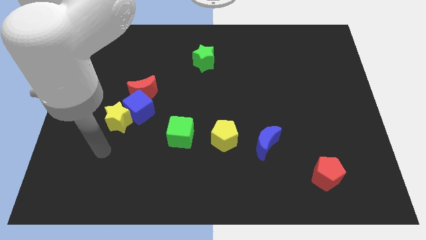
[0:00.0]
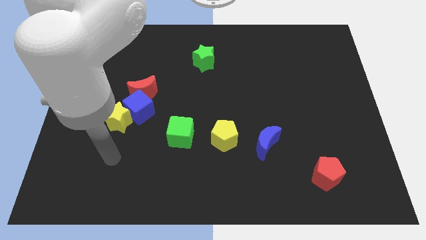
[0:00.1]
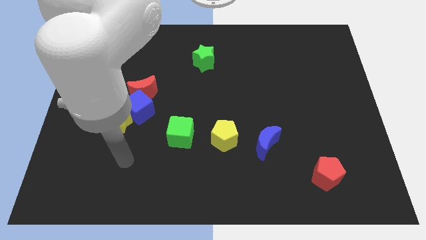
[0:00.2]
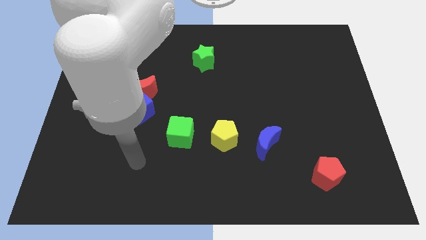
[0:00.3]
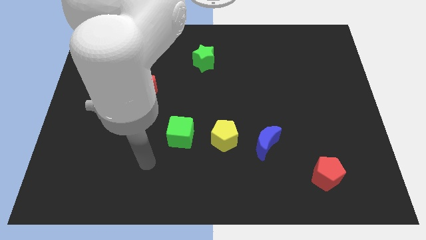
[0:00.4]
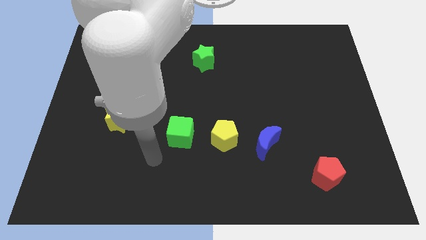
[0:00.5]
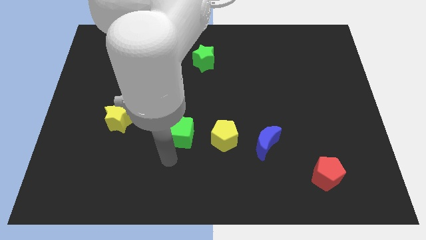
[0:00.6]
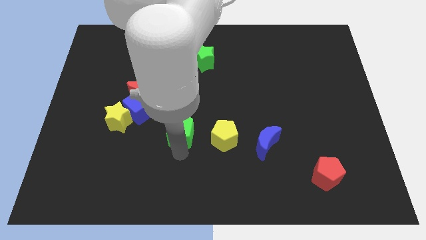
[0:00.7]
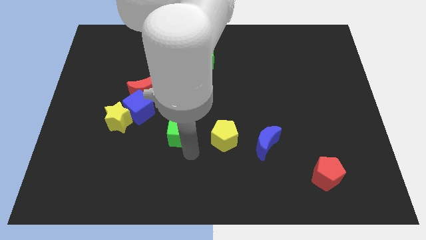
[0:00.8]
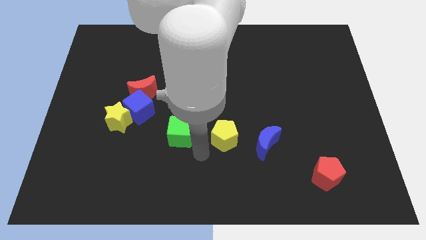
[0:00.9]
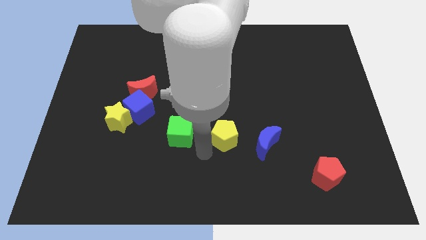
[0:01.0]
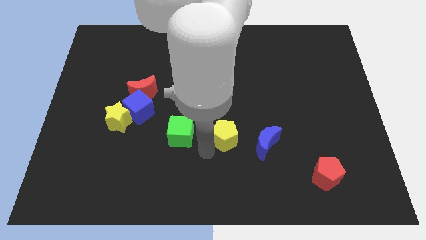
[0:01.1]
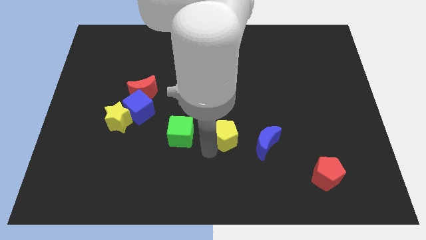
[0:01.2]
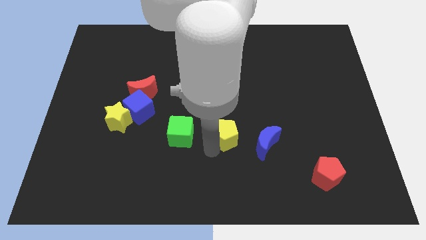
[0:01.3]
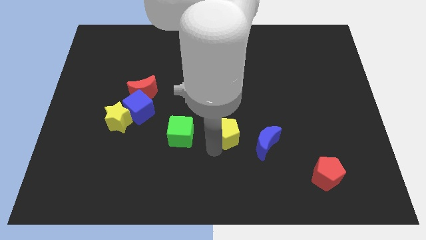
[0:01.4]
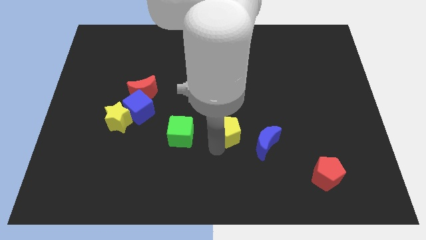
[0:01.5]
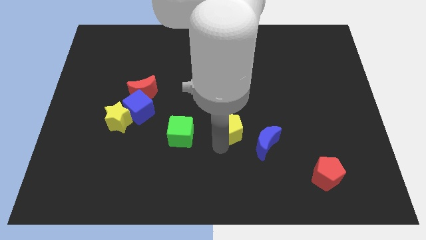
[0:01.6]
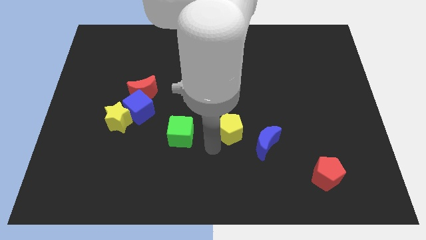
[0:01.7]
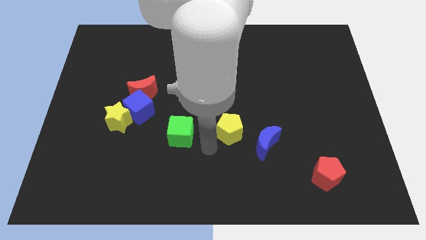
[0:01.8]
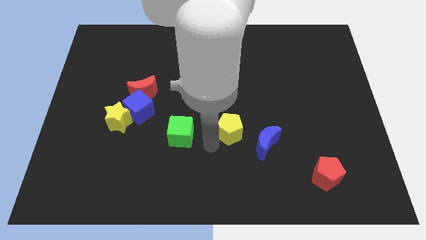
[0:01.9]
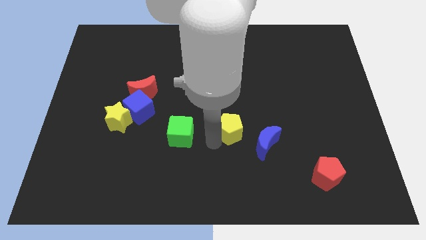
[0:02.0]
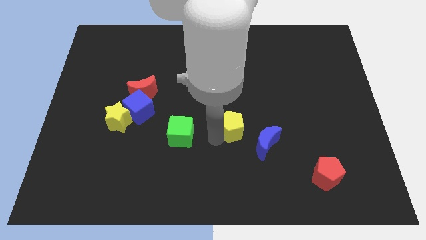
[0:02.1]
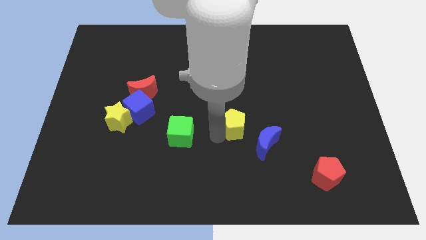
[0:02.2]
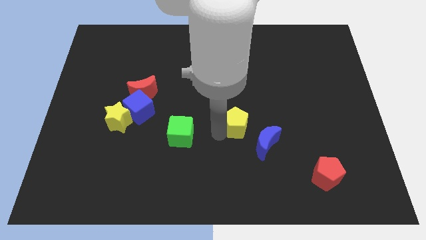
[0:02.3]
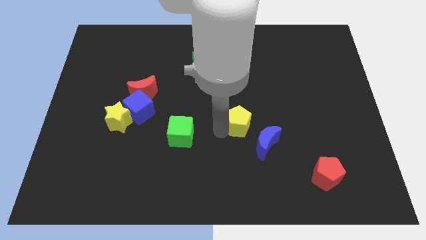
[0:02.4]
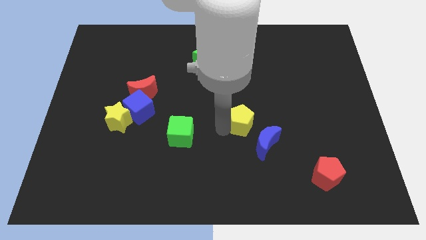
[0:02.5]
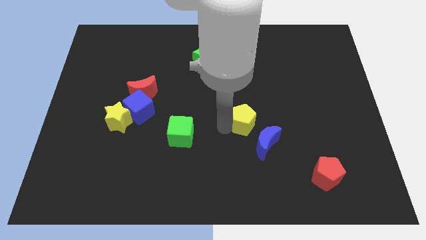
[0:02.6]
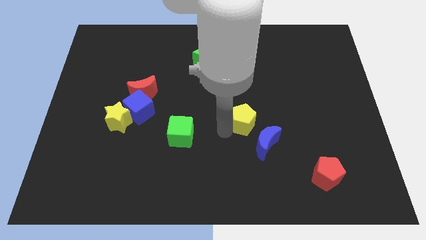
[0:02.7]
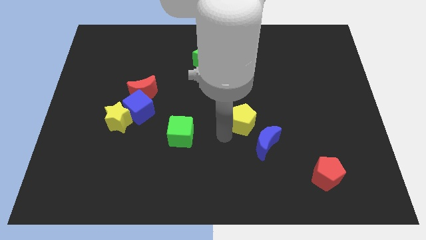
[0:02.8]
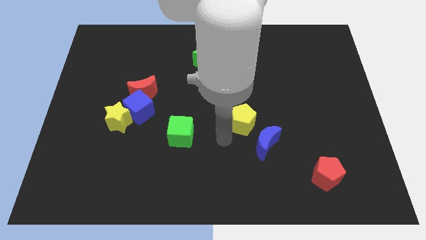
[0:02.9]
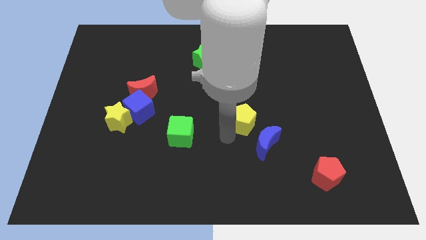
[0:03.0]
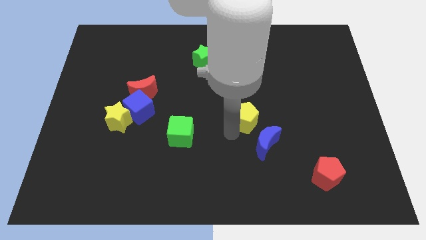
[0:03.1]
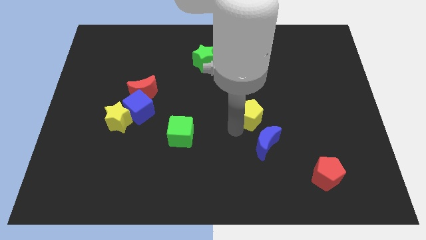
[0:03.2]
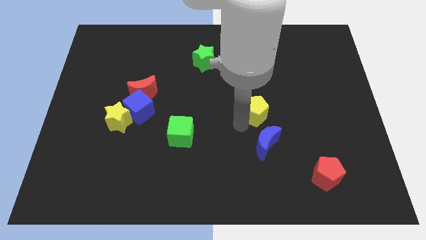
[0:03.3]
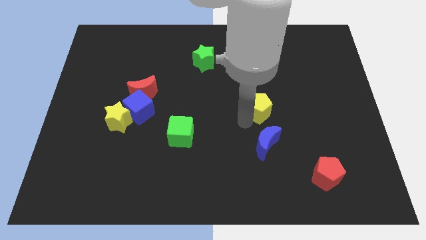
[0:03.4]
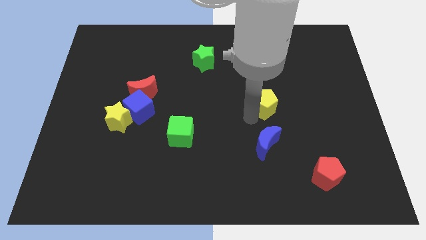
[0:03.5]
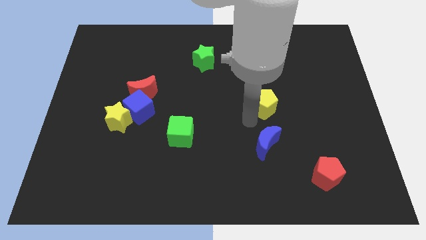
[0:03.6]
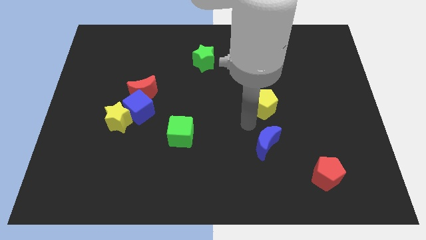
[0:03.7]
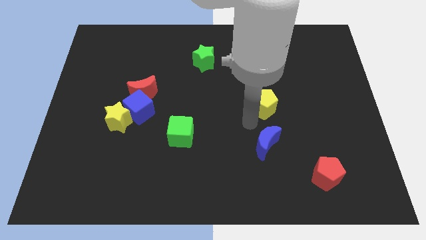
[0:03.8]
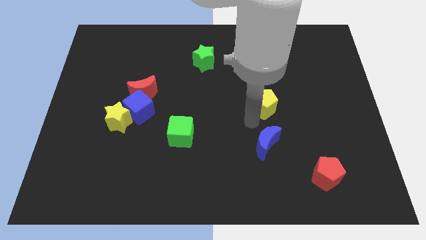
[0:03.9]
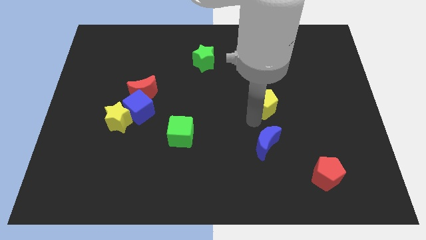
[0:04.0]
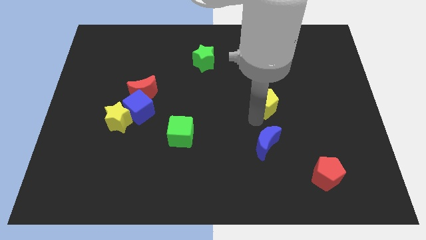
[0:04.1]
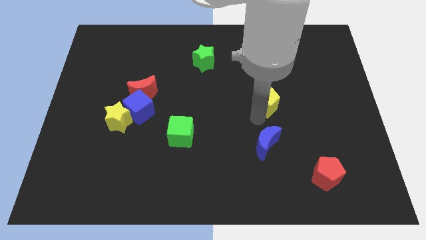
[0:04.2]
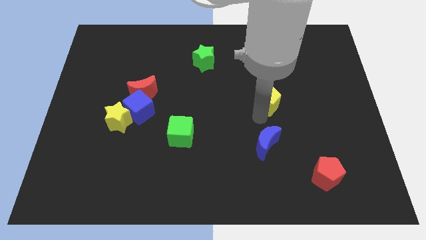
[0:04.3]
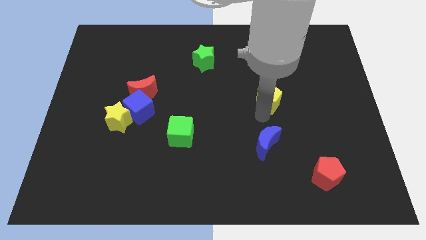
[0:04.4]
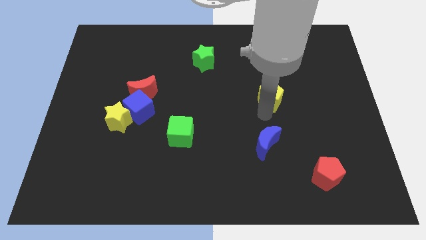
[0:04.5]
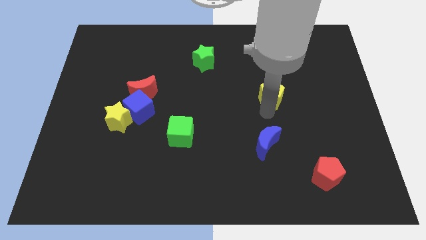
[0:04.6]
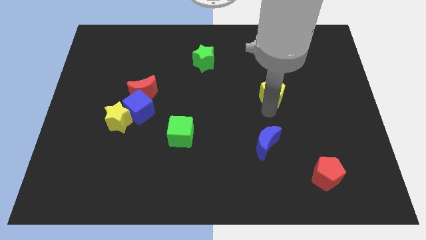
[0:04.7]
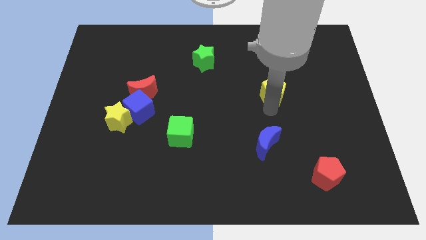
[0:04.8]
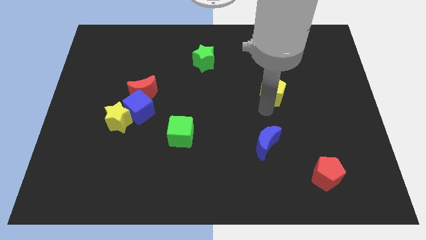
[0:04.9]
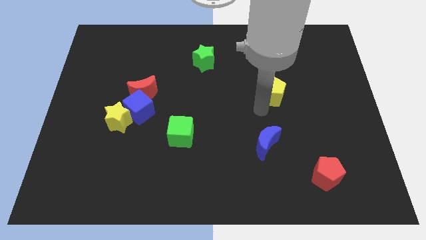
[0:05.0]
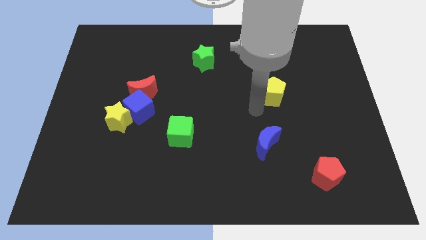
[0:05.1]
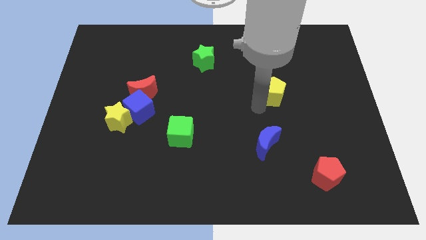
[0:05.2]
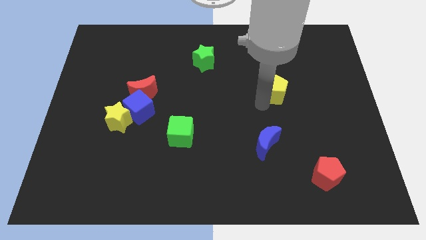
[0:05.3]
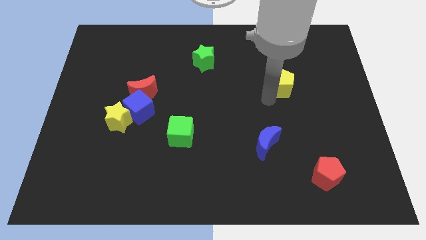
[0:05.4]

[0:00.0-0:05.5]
slide the yellow pentagon diagonally up and to the right

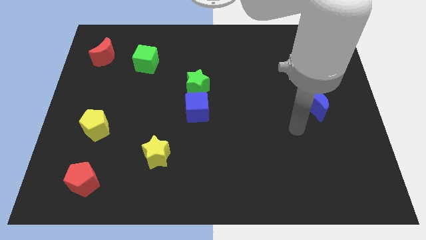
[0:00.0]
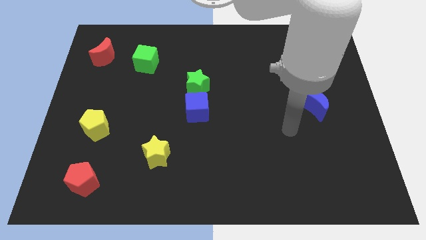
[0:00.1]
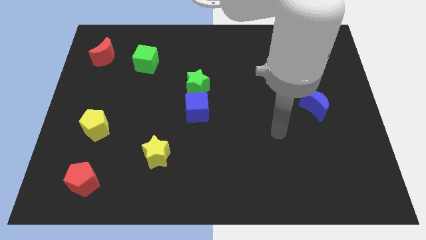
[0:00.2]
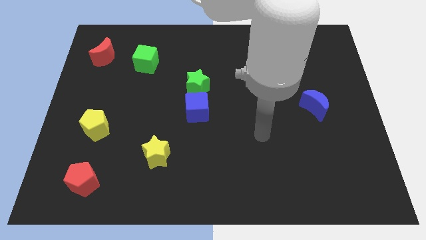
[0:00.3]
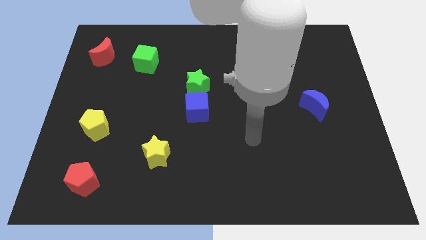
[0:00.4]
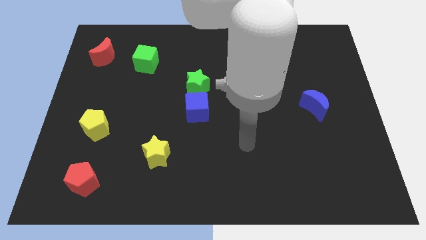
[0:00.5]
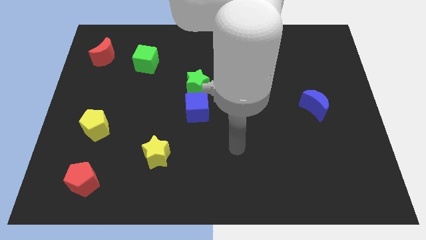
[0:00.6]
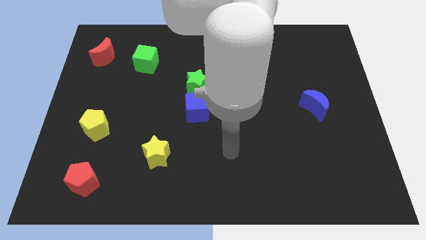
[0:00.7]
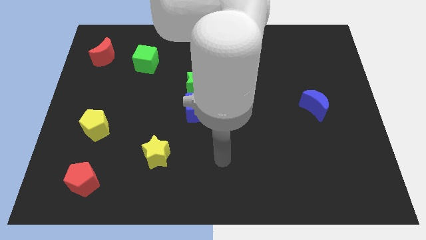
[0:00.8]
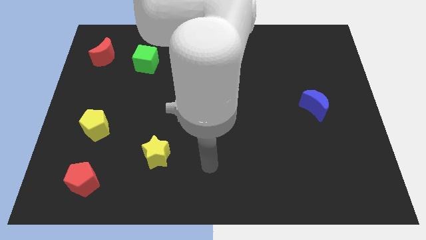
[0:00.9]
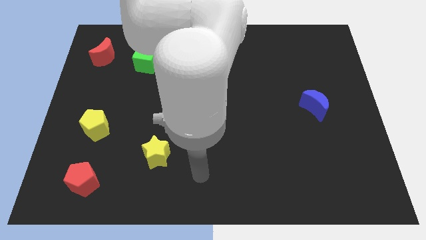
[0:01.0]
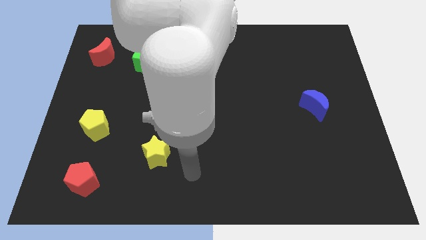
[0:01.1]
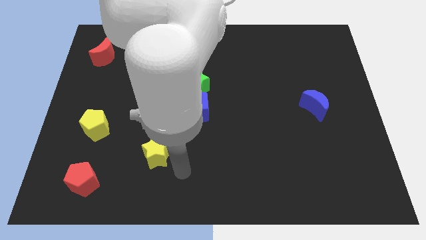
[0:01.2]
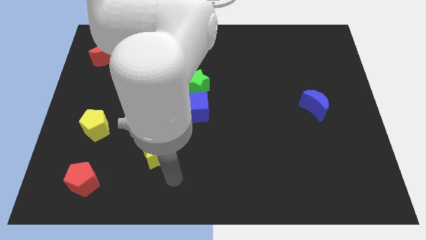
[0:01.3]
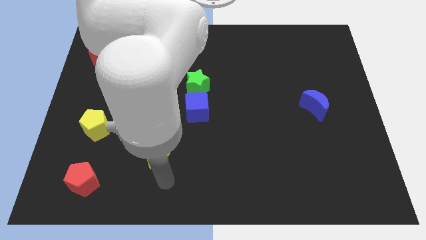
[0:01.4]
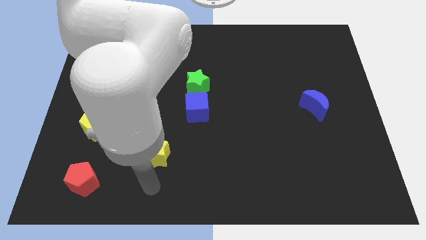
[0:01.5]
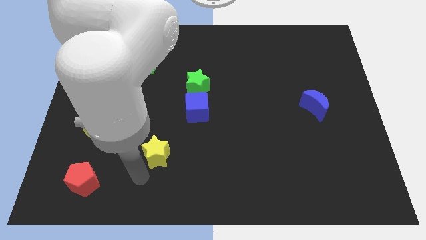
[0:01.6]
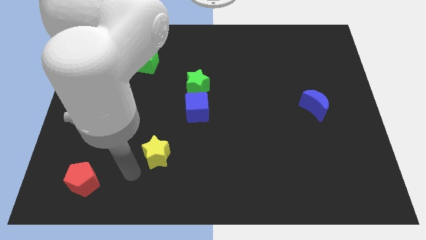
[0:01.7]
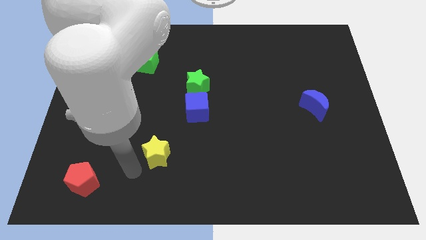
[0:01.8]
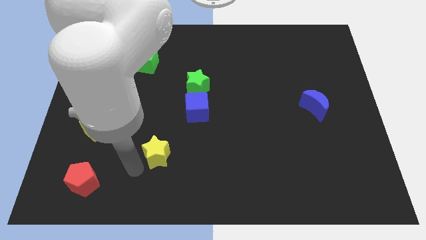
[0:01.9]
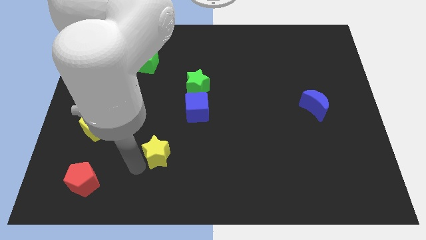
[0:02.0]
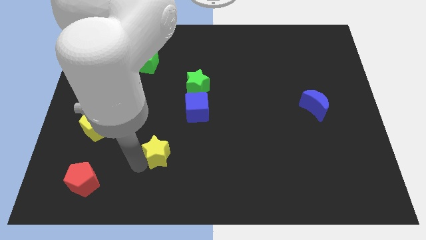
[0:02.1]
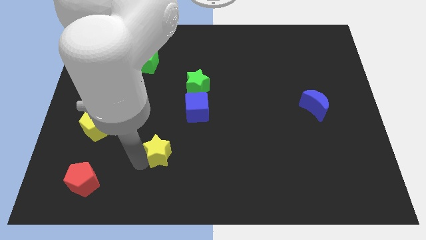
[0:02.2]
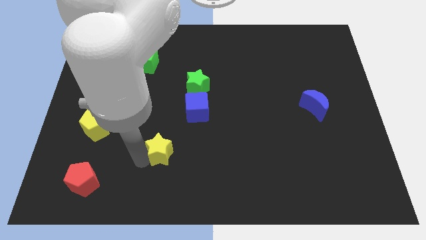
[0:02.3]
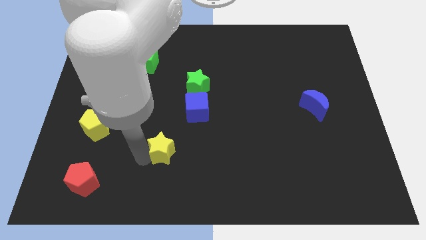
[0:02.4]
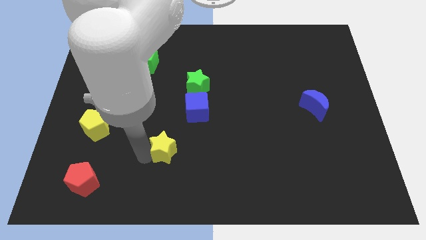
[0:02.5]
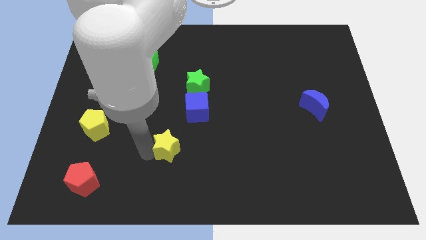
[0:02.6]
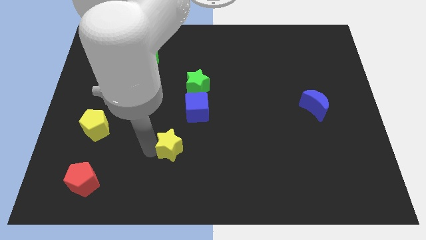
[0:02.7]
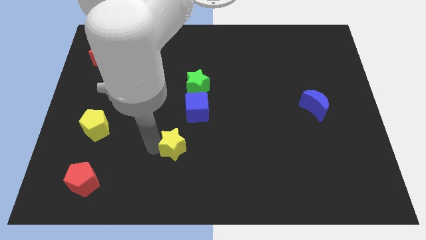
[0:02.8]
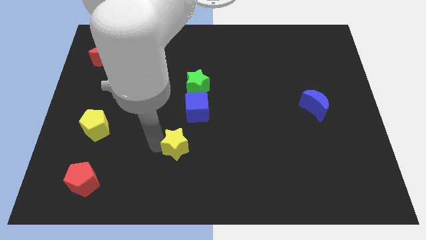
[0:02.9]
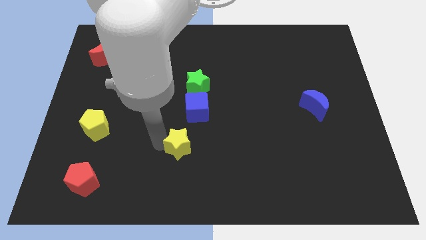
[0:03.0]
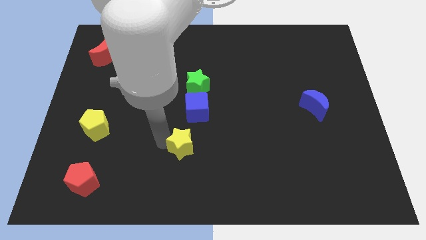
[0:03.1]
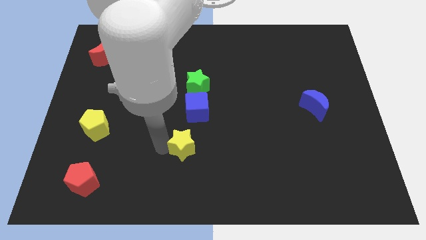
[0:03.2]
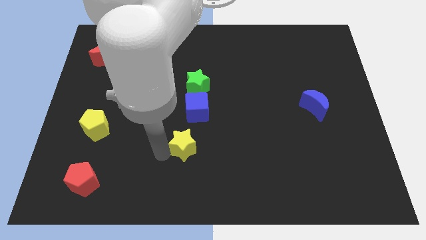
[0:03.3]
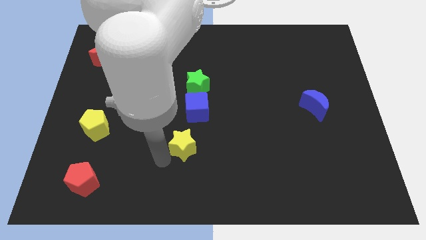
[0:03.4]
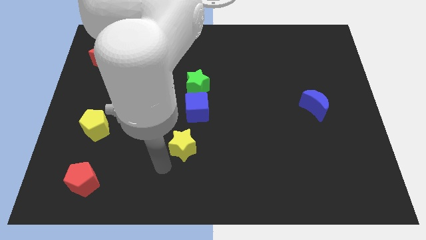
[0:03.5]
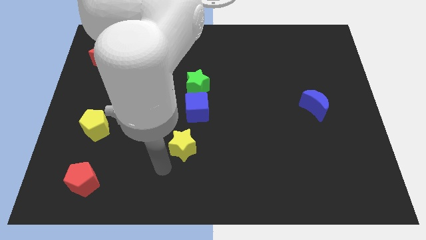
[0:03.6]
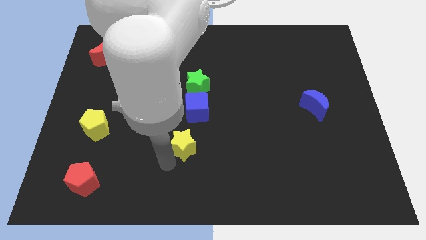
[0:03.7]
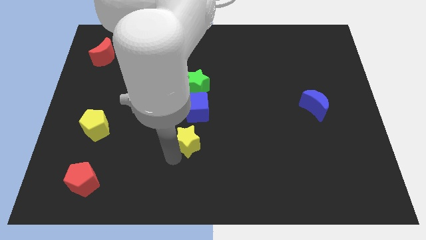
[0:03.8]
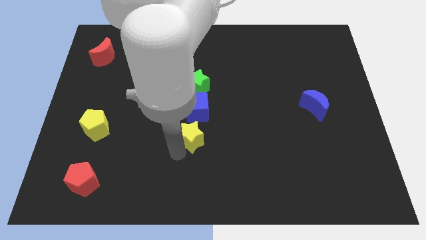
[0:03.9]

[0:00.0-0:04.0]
slightly push the yellow star diagonally upwards and right
